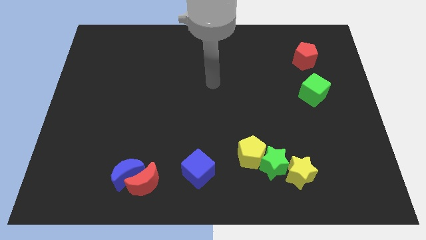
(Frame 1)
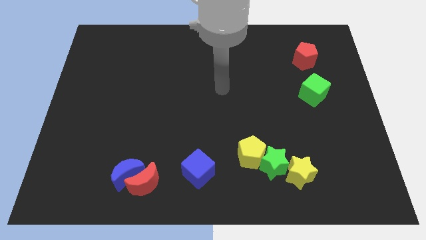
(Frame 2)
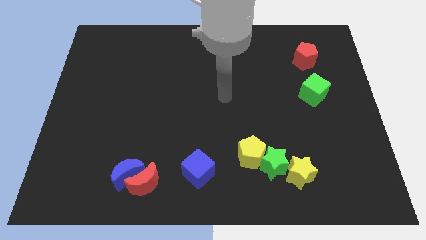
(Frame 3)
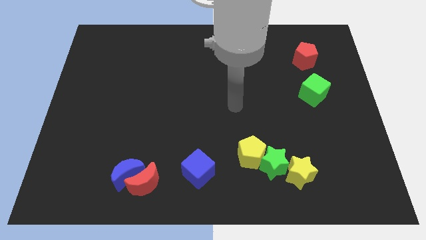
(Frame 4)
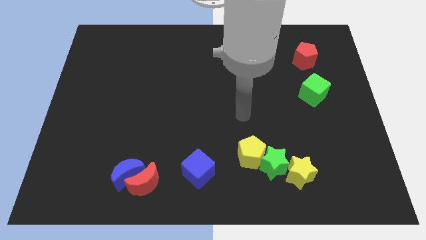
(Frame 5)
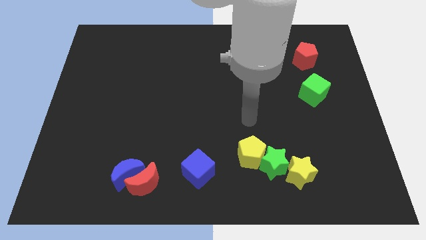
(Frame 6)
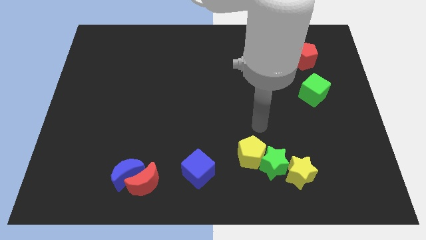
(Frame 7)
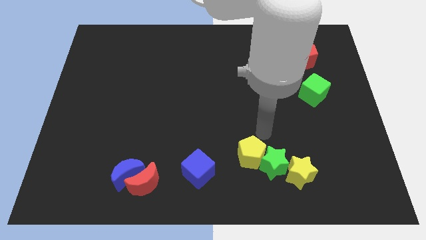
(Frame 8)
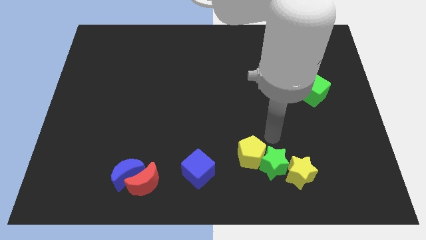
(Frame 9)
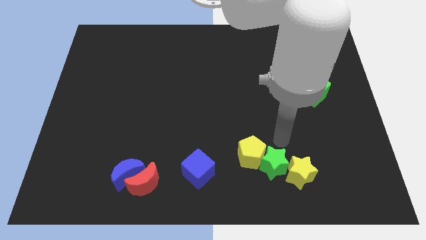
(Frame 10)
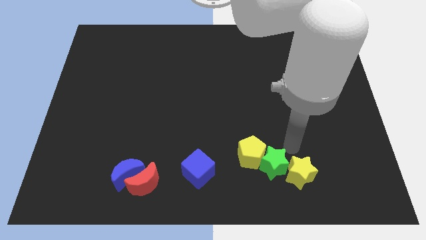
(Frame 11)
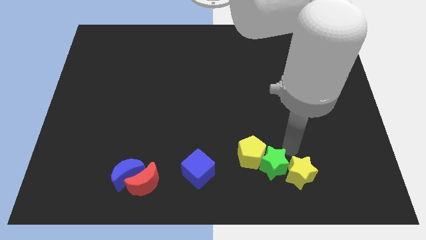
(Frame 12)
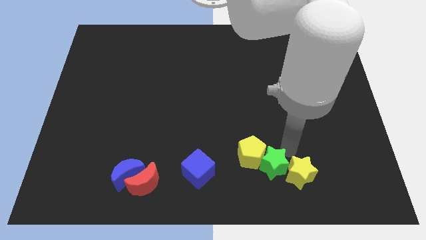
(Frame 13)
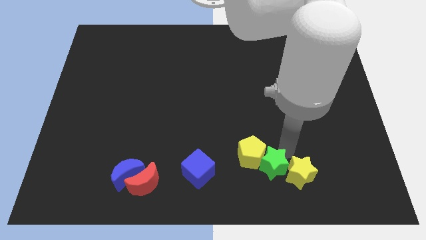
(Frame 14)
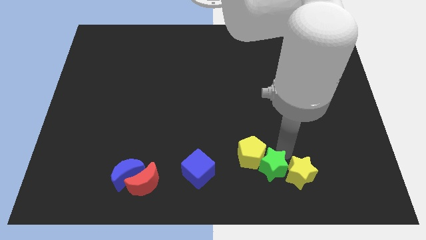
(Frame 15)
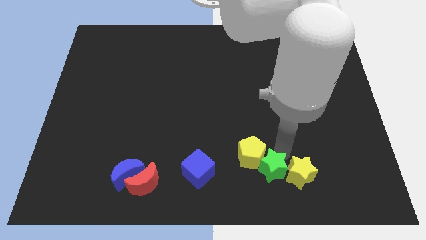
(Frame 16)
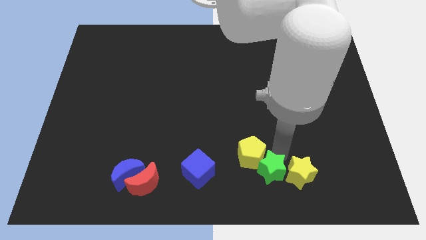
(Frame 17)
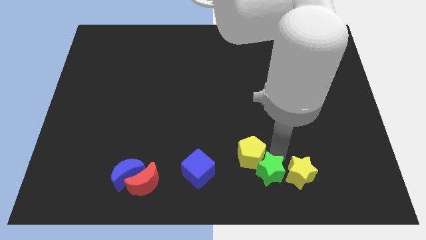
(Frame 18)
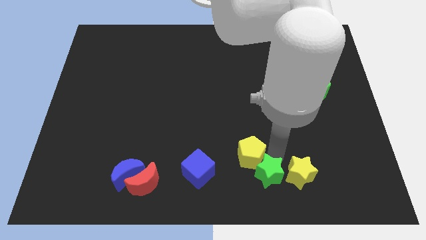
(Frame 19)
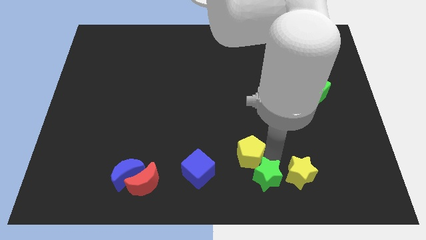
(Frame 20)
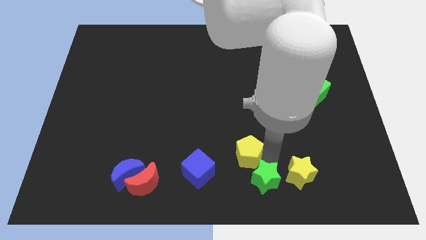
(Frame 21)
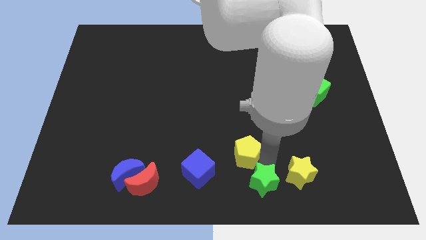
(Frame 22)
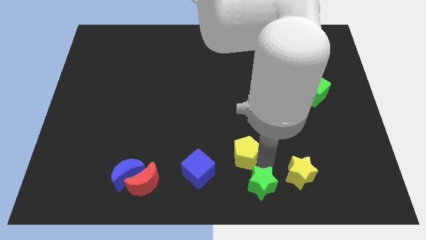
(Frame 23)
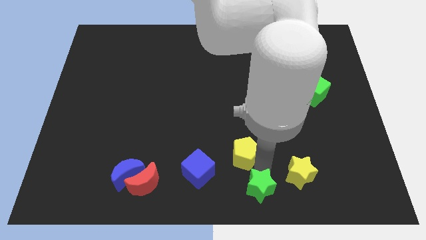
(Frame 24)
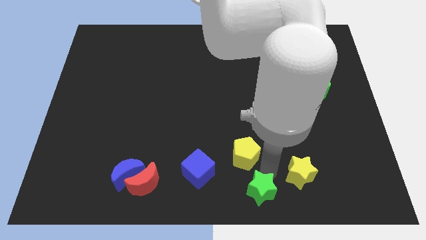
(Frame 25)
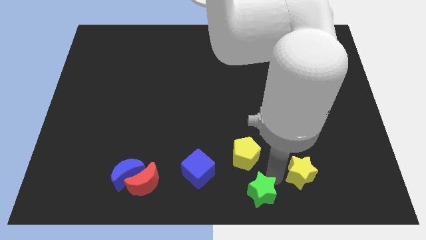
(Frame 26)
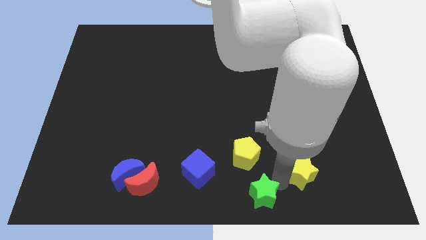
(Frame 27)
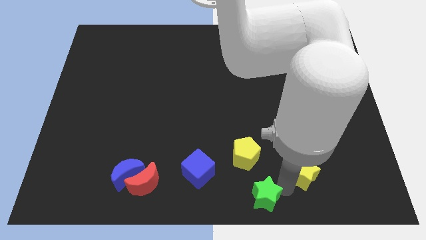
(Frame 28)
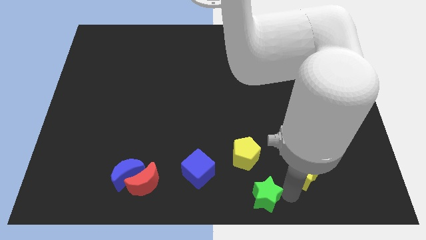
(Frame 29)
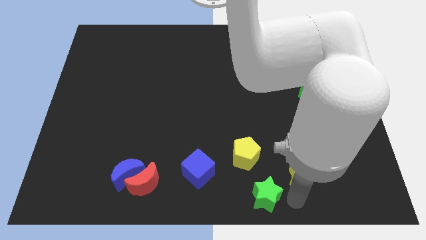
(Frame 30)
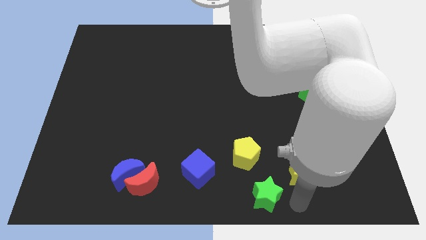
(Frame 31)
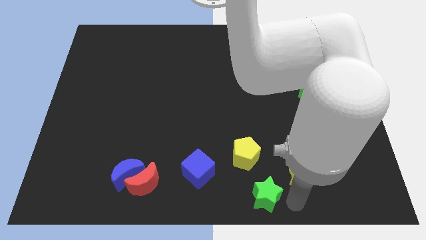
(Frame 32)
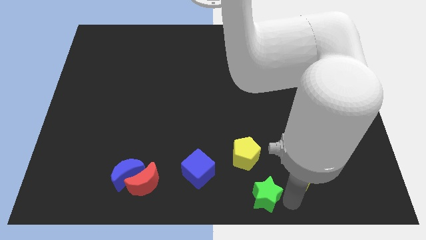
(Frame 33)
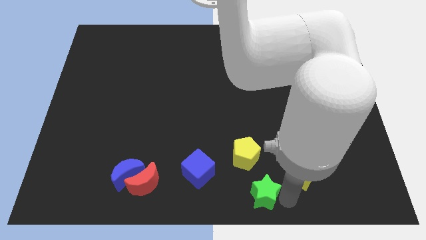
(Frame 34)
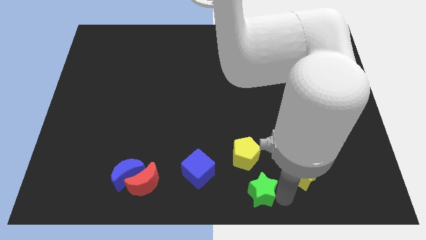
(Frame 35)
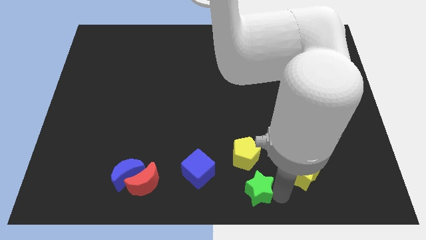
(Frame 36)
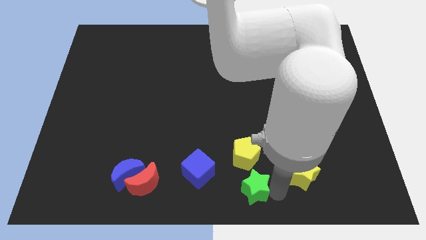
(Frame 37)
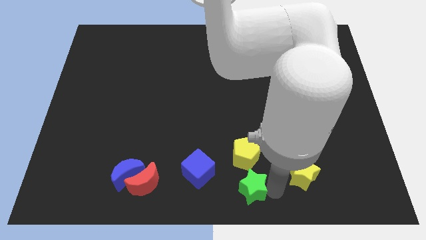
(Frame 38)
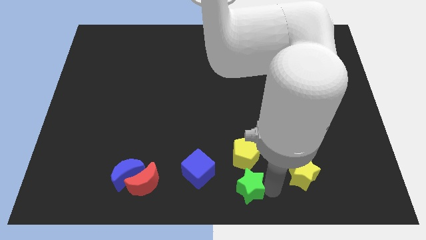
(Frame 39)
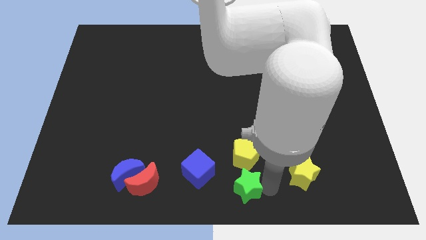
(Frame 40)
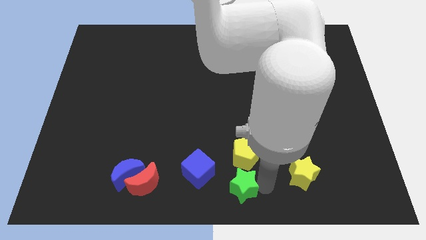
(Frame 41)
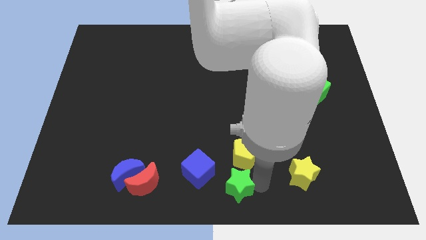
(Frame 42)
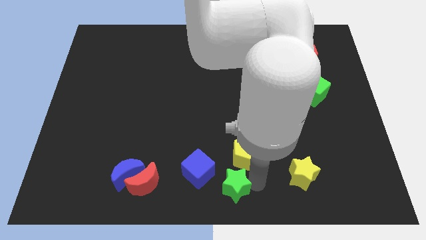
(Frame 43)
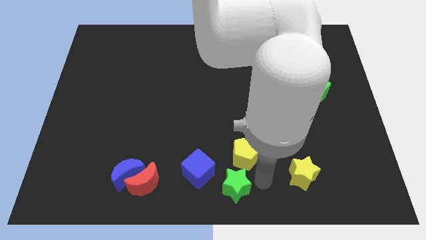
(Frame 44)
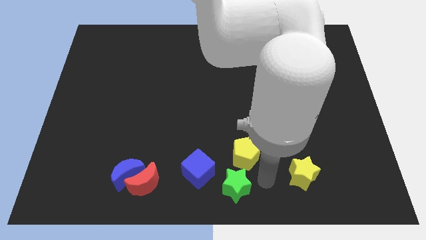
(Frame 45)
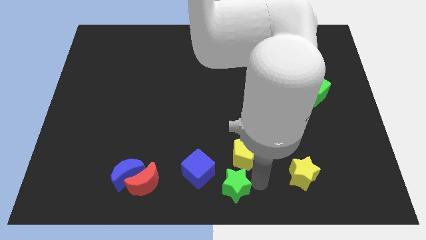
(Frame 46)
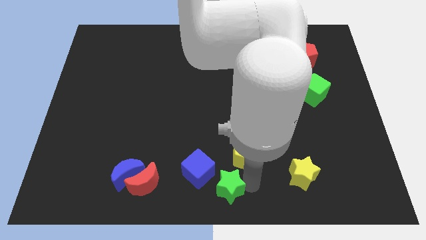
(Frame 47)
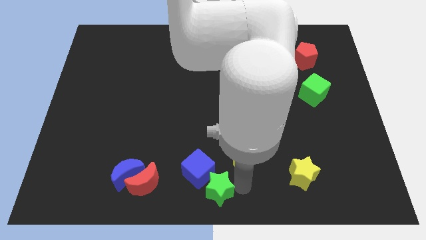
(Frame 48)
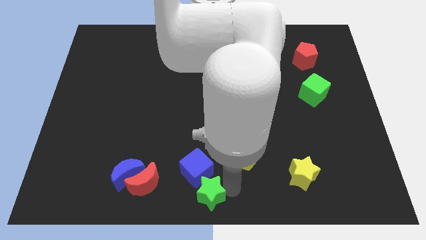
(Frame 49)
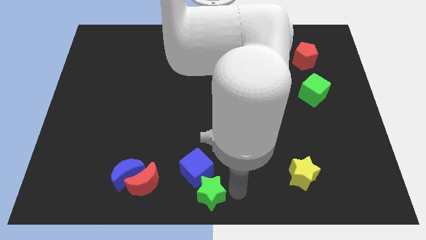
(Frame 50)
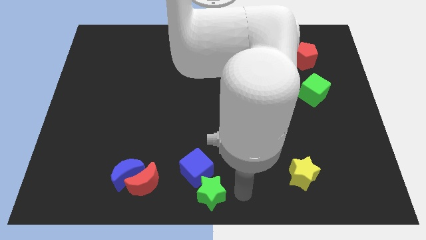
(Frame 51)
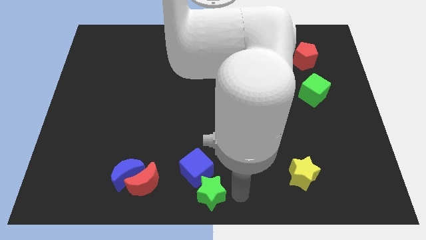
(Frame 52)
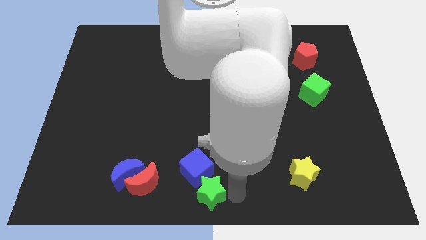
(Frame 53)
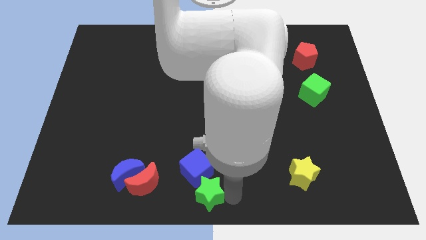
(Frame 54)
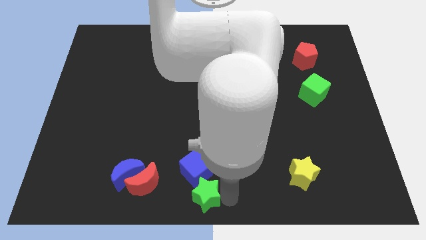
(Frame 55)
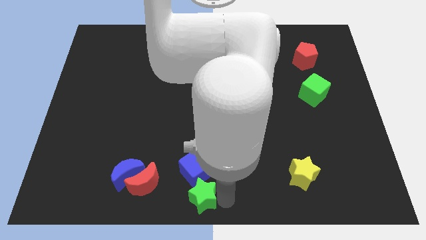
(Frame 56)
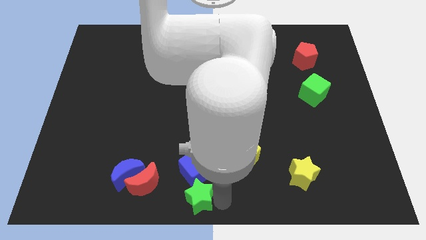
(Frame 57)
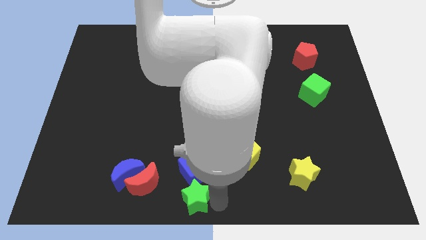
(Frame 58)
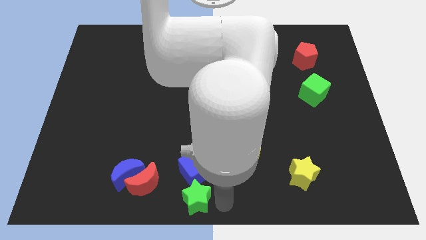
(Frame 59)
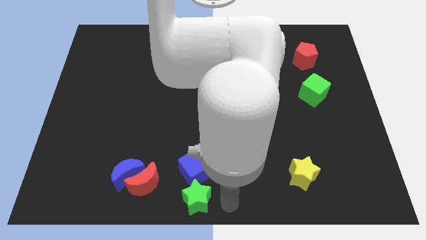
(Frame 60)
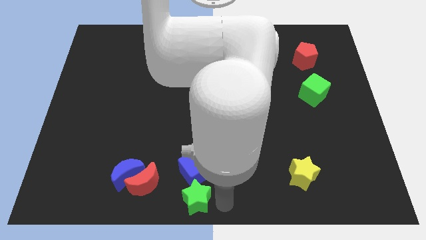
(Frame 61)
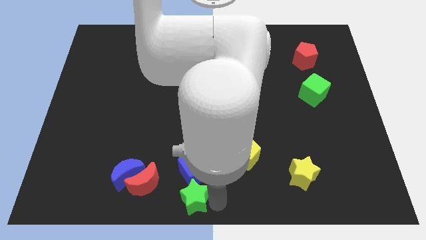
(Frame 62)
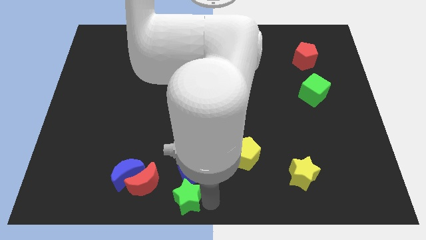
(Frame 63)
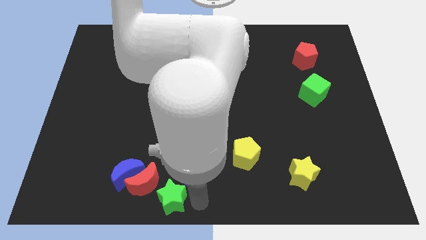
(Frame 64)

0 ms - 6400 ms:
move the green star close to the red moon

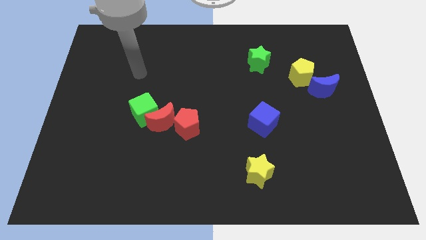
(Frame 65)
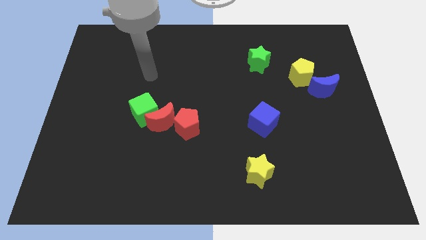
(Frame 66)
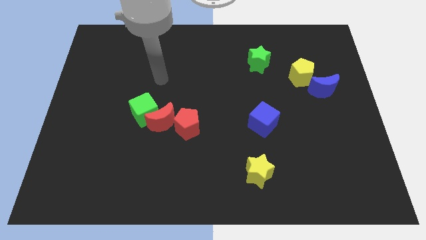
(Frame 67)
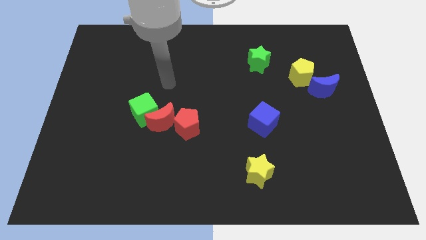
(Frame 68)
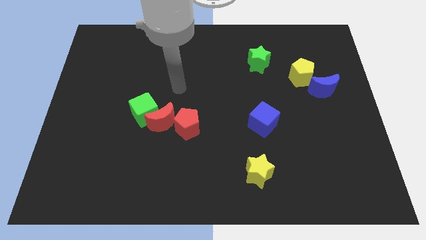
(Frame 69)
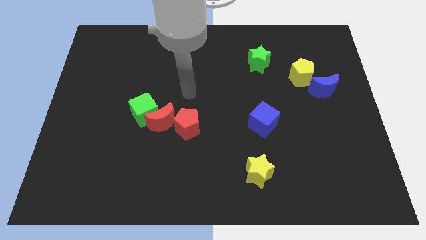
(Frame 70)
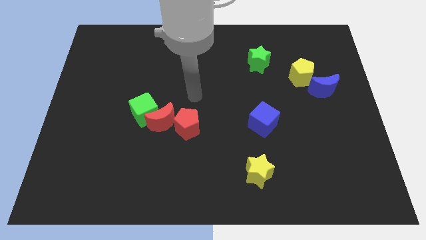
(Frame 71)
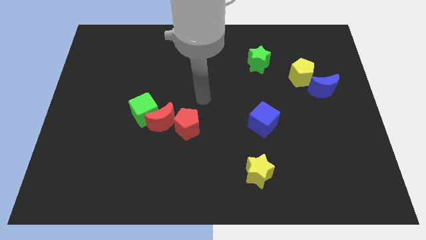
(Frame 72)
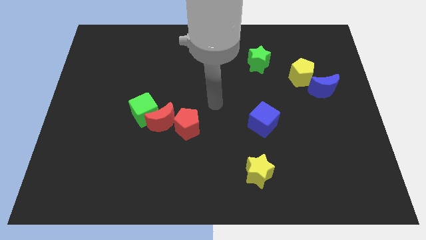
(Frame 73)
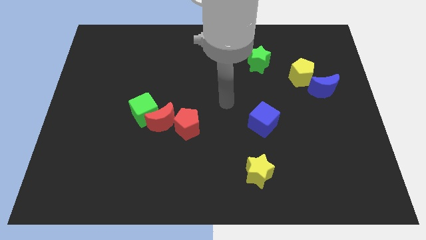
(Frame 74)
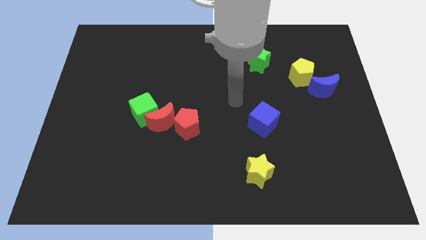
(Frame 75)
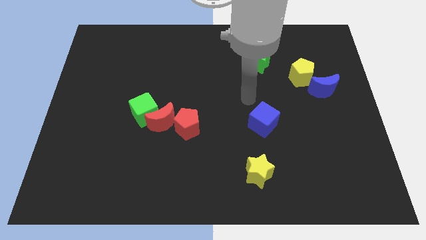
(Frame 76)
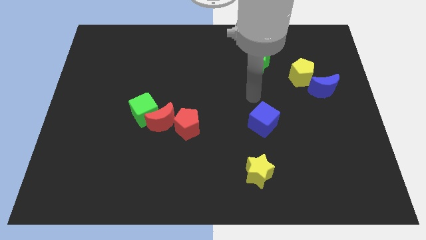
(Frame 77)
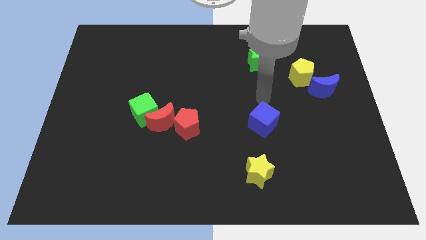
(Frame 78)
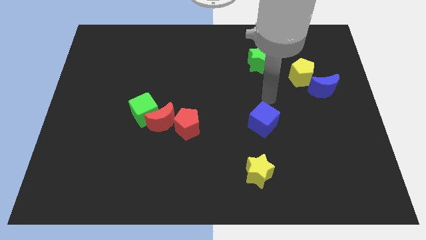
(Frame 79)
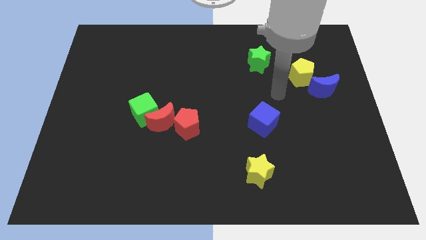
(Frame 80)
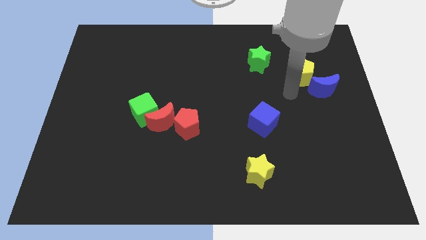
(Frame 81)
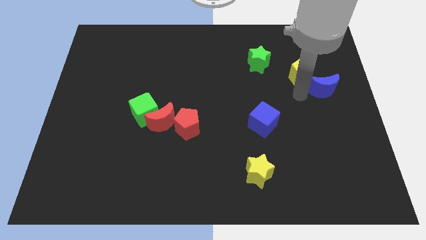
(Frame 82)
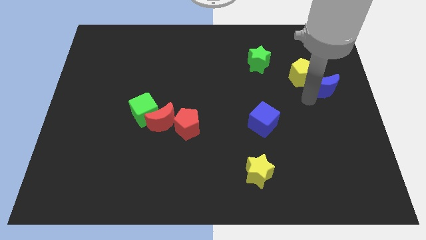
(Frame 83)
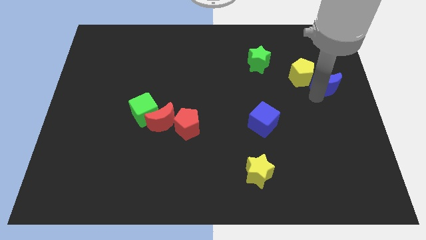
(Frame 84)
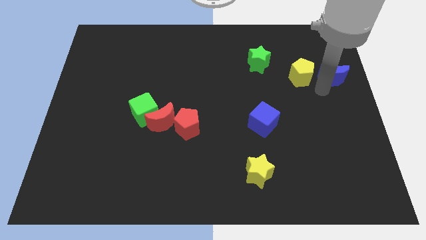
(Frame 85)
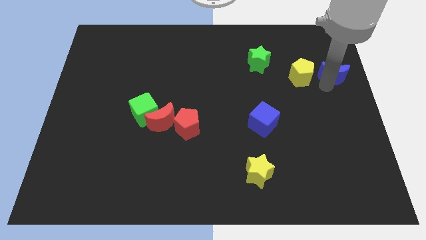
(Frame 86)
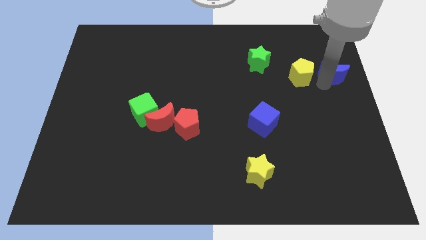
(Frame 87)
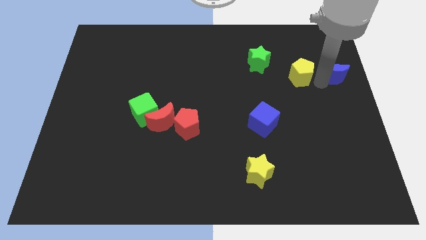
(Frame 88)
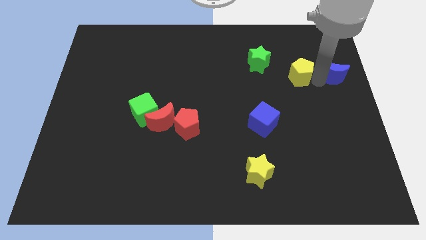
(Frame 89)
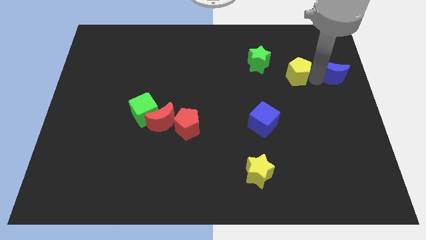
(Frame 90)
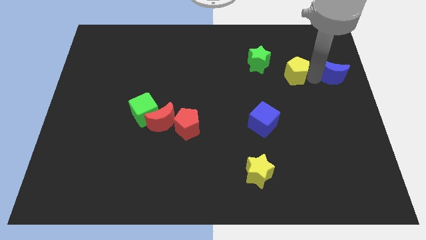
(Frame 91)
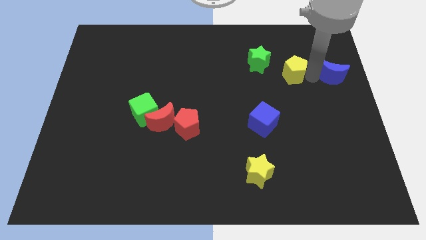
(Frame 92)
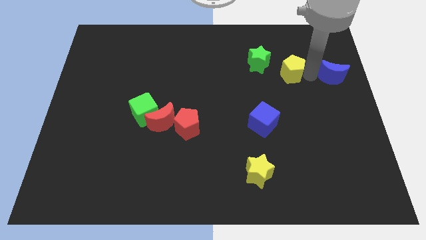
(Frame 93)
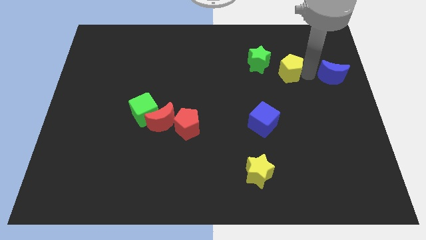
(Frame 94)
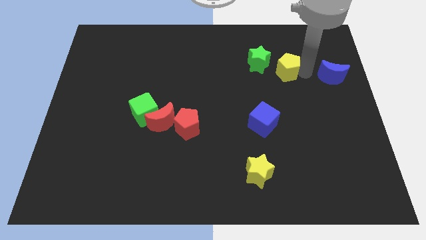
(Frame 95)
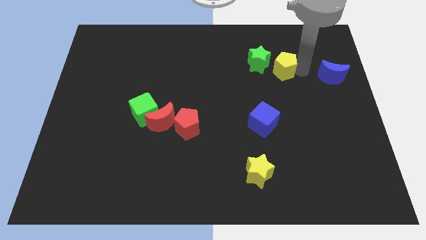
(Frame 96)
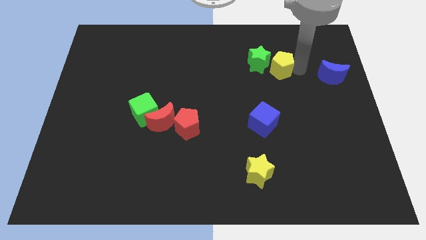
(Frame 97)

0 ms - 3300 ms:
push the yellow pentagon close to the green star
